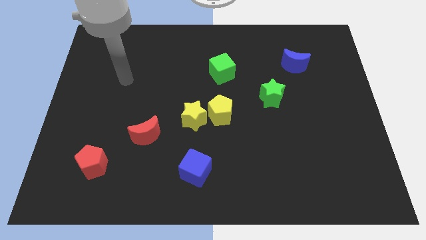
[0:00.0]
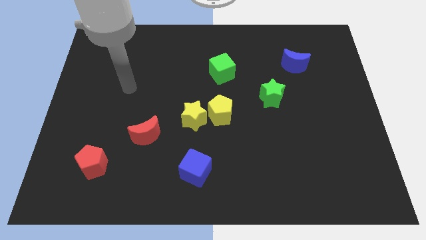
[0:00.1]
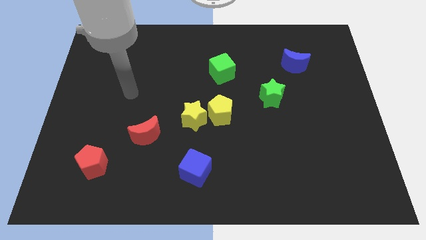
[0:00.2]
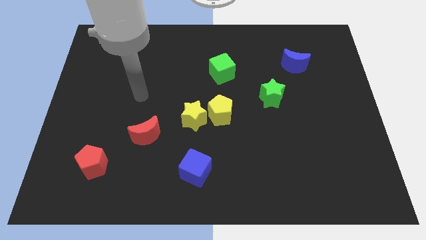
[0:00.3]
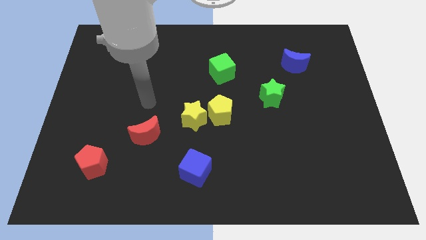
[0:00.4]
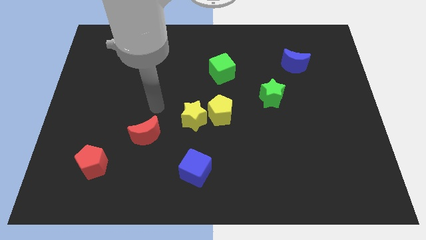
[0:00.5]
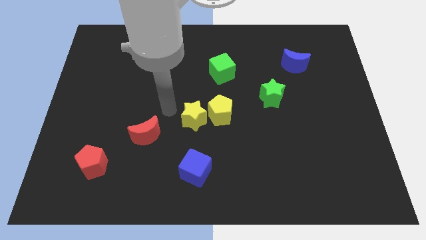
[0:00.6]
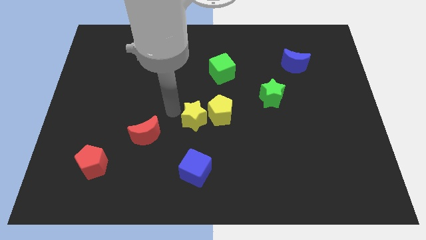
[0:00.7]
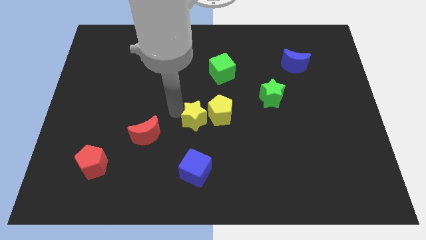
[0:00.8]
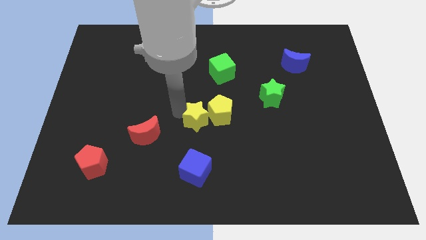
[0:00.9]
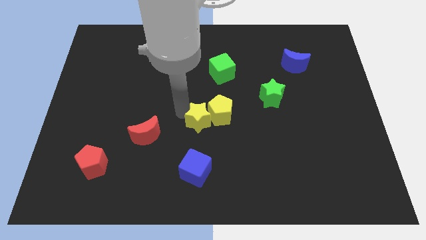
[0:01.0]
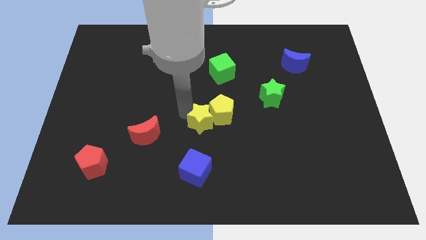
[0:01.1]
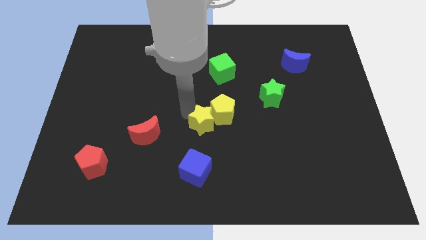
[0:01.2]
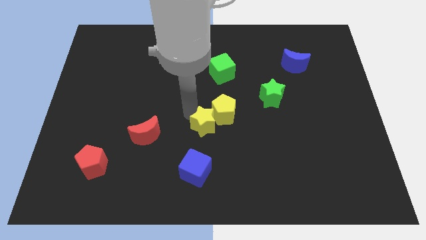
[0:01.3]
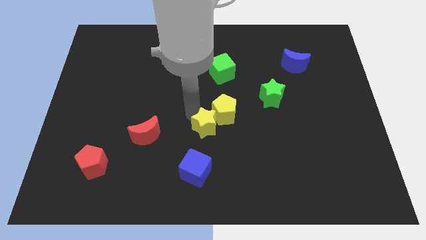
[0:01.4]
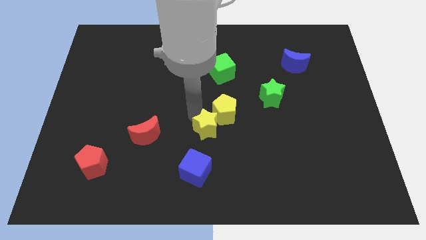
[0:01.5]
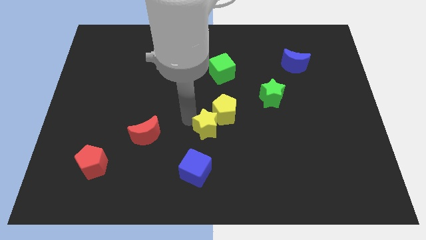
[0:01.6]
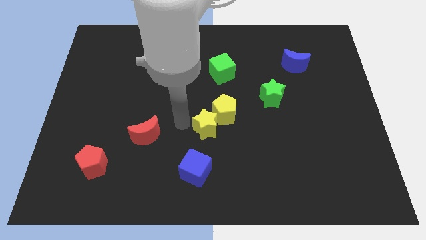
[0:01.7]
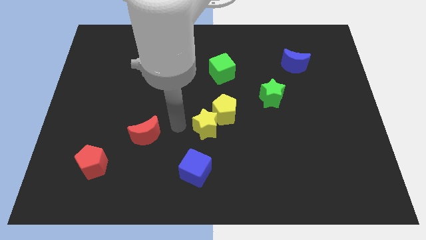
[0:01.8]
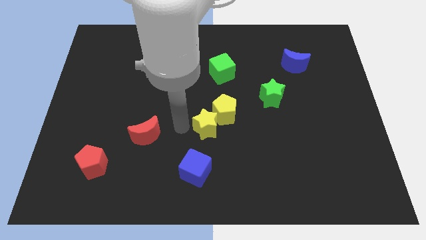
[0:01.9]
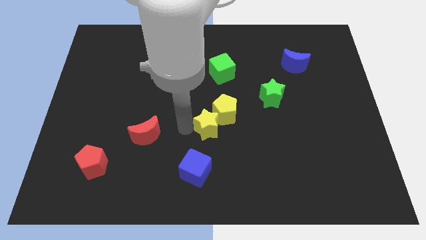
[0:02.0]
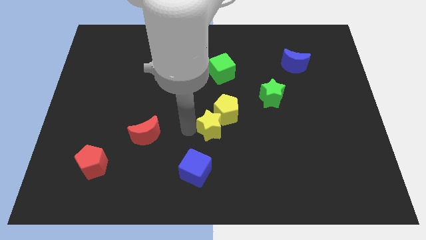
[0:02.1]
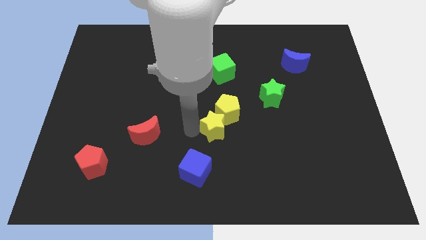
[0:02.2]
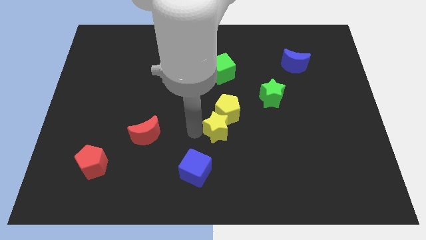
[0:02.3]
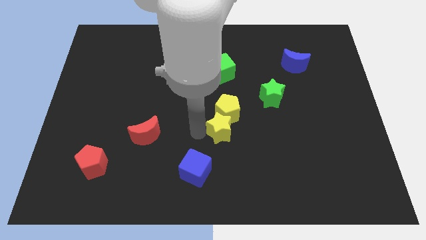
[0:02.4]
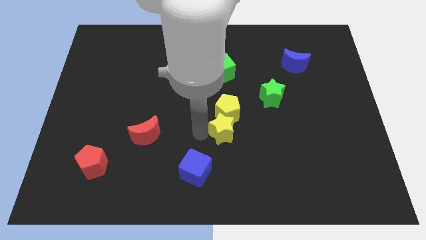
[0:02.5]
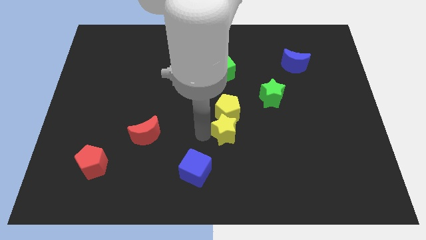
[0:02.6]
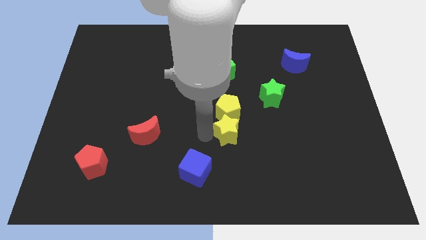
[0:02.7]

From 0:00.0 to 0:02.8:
slightly push the yellow star to the right

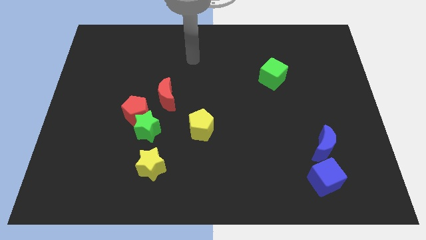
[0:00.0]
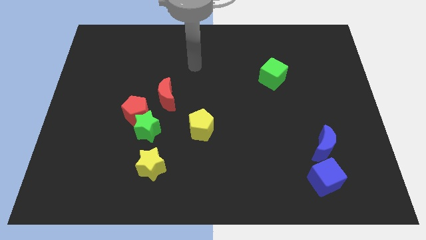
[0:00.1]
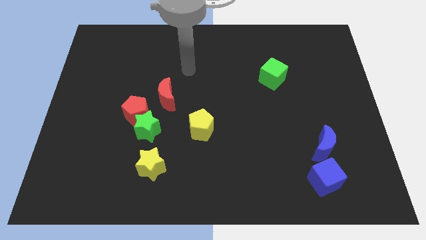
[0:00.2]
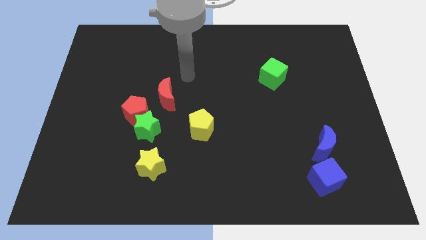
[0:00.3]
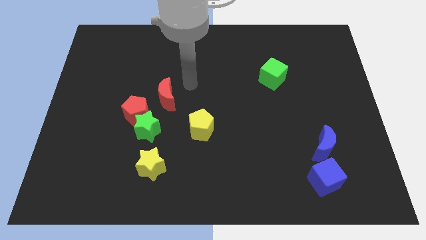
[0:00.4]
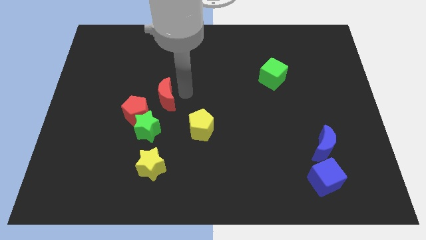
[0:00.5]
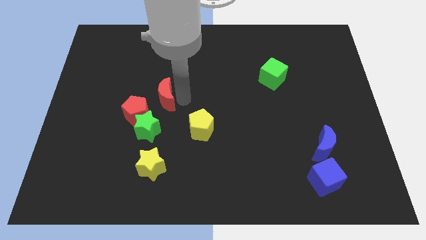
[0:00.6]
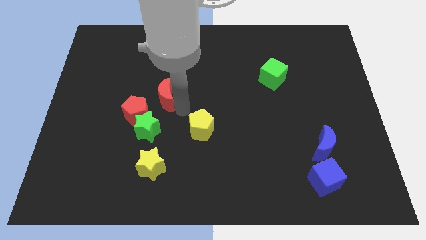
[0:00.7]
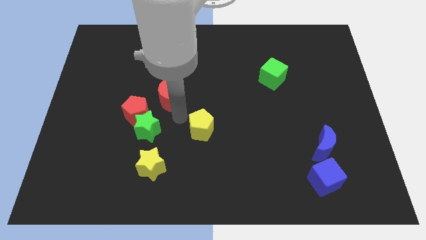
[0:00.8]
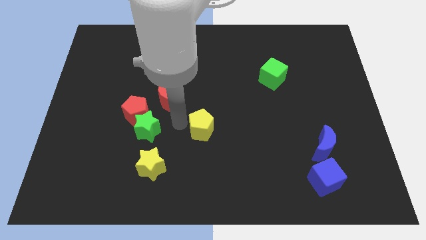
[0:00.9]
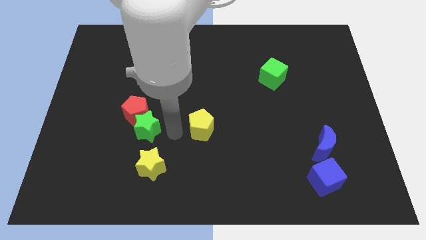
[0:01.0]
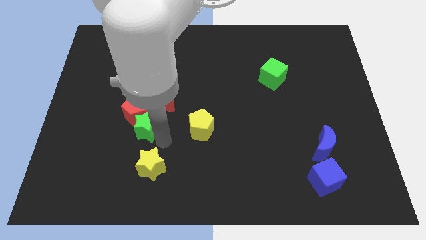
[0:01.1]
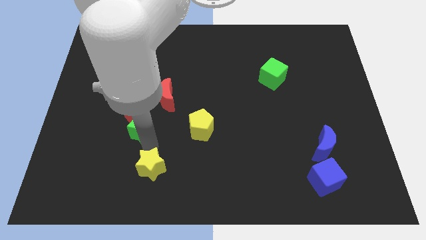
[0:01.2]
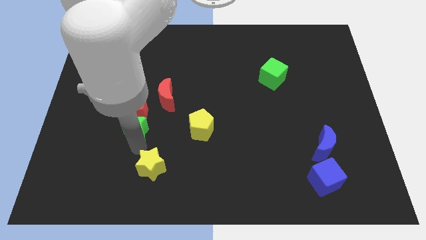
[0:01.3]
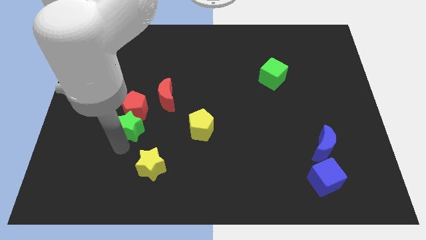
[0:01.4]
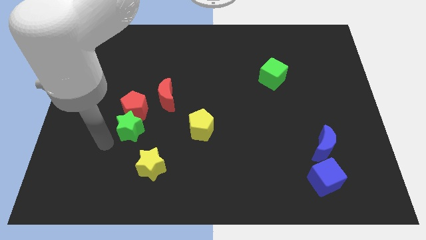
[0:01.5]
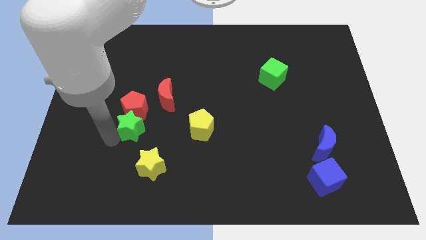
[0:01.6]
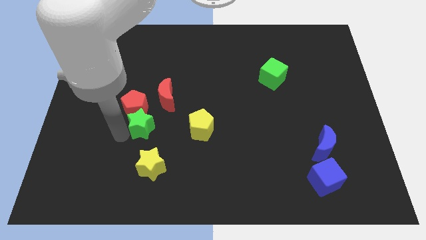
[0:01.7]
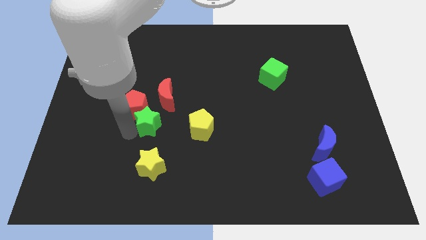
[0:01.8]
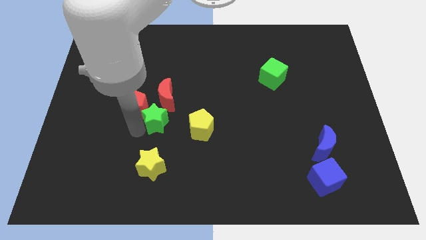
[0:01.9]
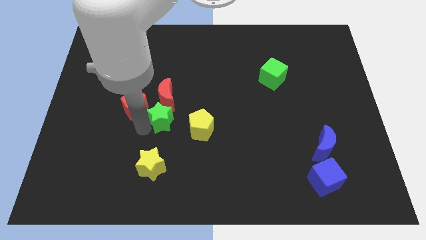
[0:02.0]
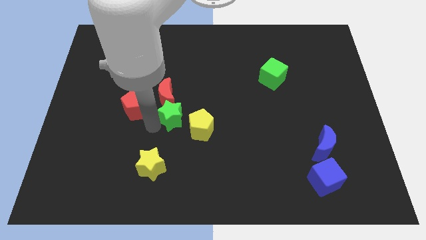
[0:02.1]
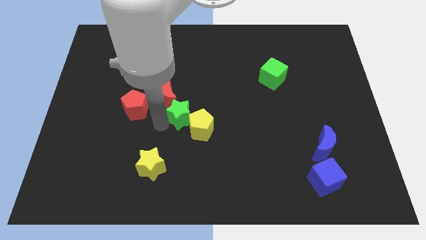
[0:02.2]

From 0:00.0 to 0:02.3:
slightly slide the green star upwards and then right

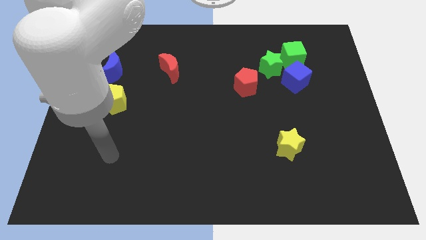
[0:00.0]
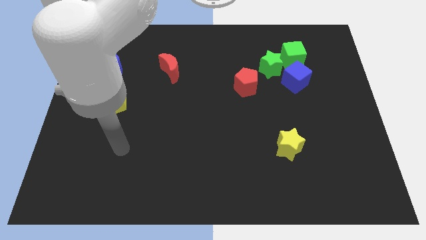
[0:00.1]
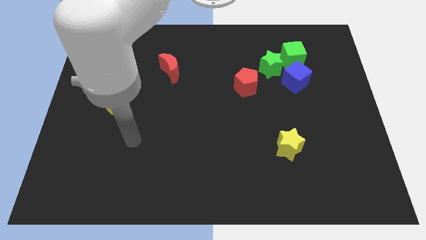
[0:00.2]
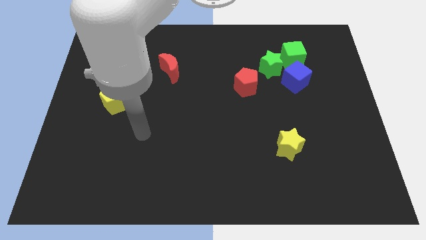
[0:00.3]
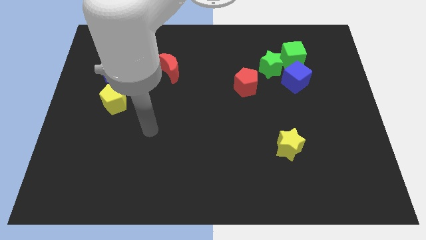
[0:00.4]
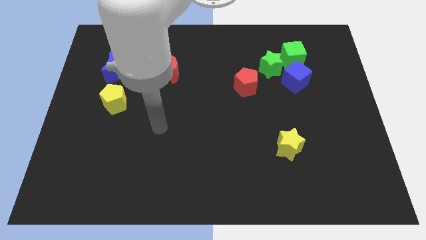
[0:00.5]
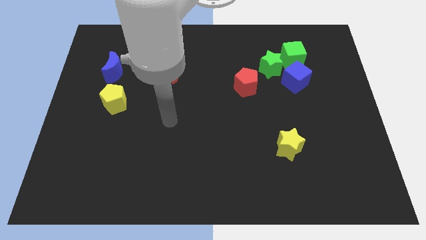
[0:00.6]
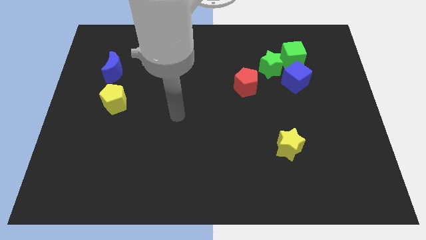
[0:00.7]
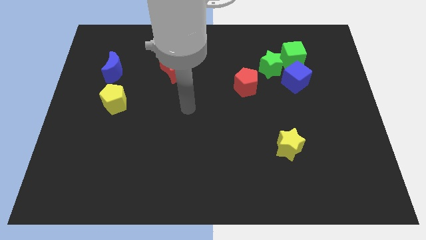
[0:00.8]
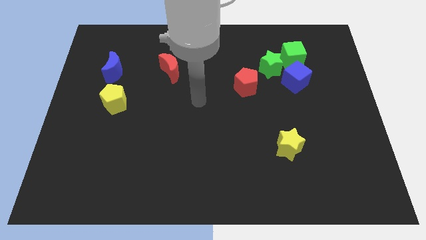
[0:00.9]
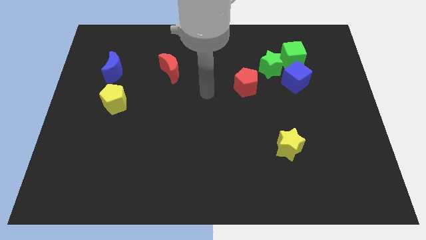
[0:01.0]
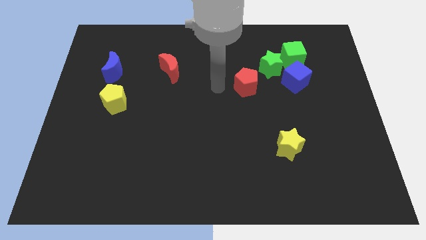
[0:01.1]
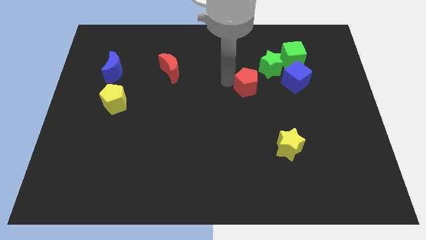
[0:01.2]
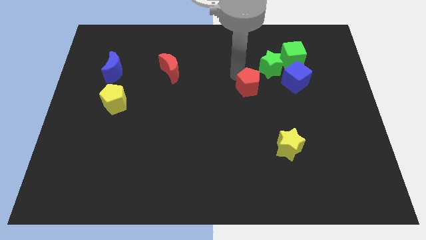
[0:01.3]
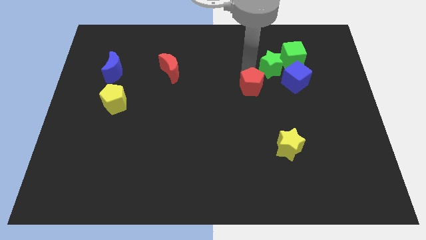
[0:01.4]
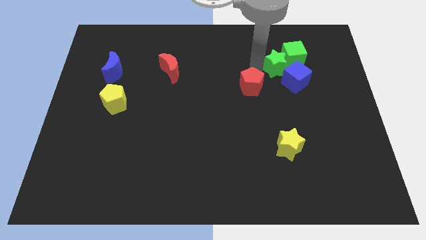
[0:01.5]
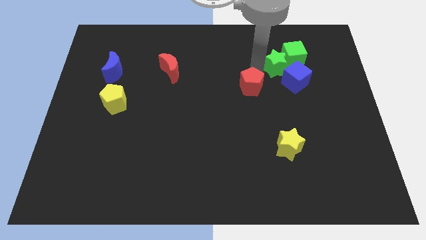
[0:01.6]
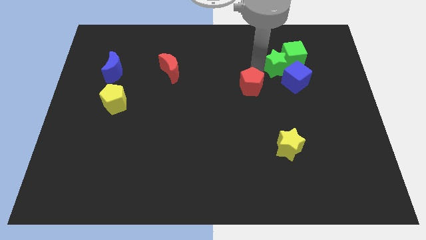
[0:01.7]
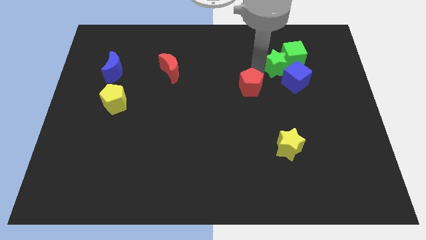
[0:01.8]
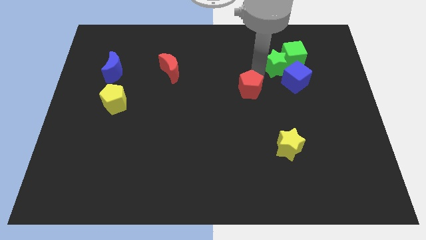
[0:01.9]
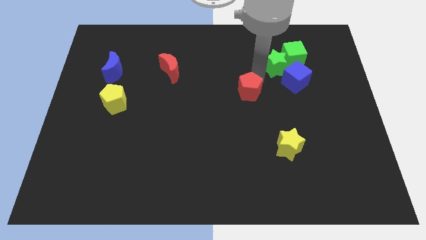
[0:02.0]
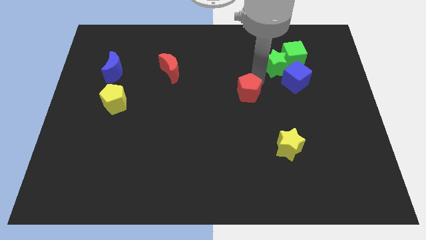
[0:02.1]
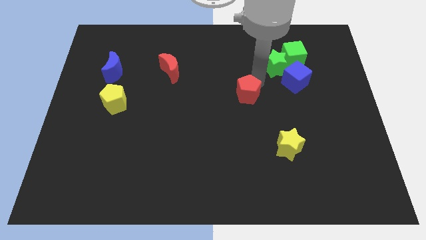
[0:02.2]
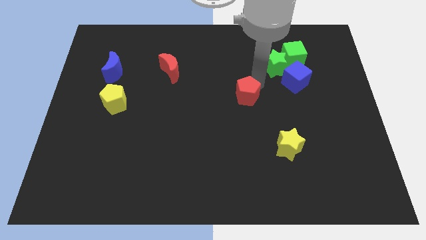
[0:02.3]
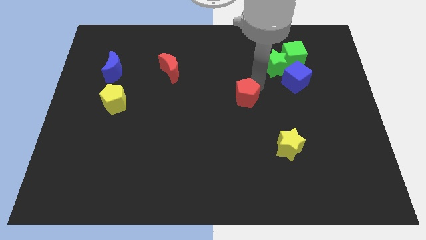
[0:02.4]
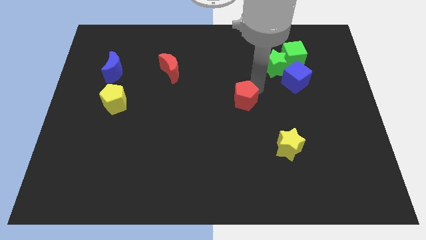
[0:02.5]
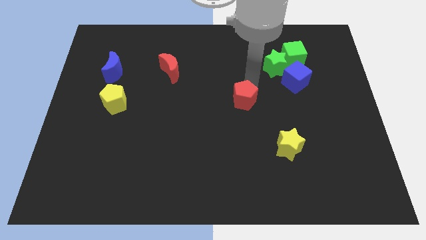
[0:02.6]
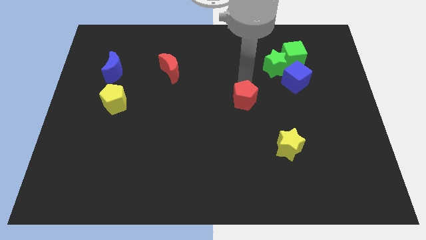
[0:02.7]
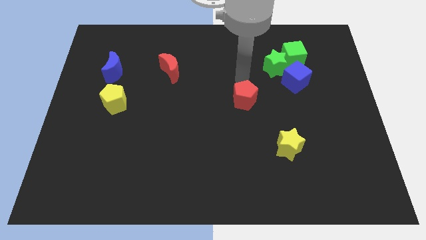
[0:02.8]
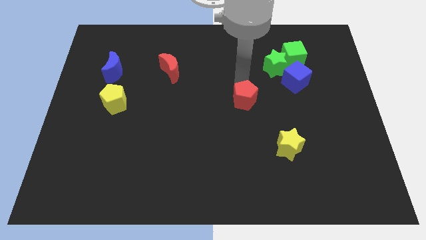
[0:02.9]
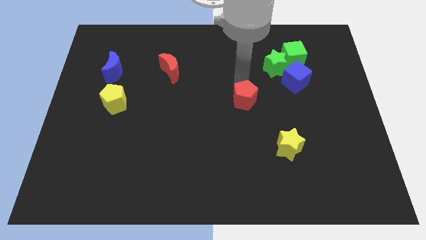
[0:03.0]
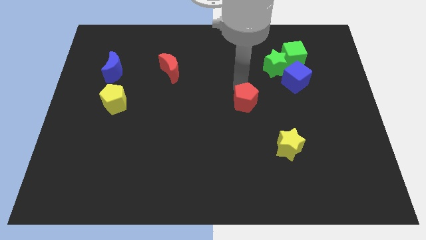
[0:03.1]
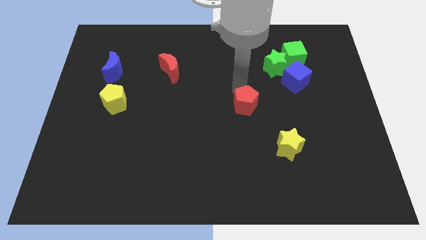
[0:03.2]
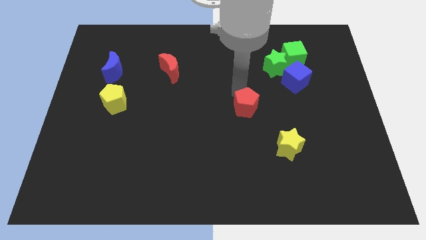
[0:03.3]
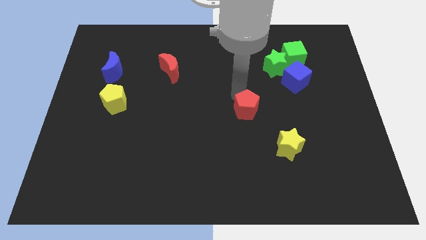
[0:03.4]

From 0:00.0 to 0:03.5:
move the red pentagon a little bit down
